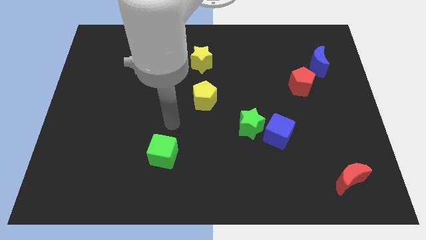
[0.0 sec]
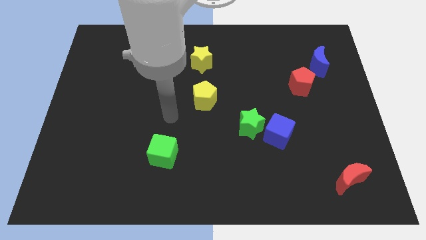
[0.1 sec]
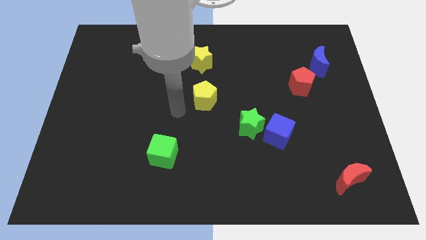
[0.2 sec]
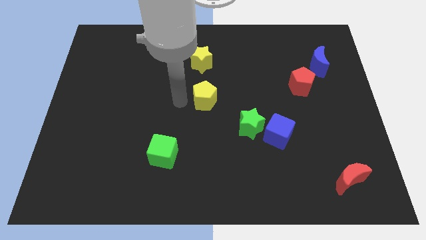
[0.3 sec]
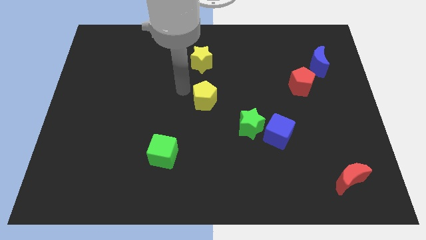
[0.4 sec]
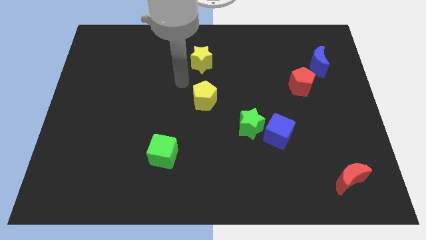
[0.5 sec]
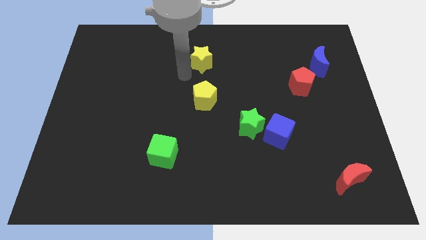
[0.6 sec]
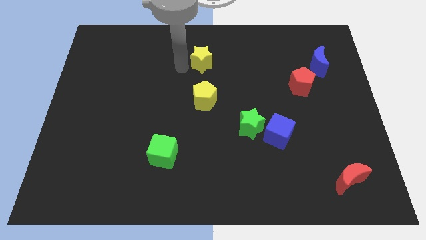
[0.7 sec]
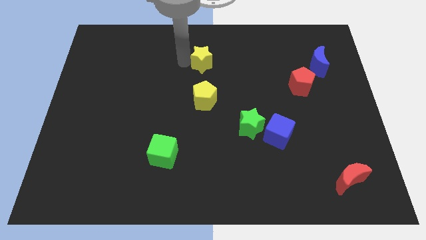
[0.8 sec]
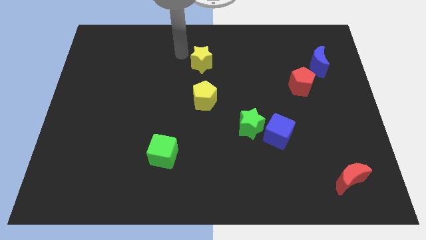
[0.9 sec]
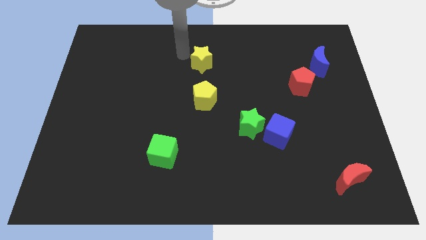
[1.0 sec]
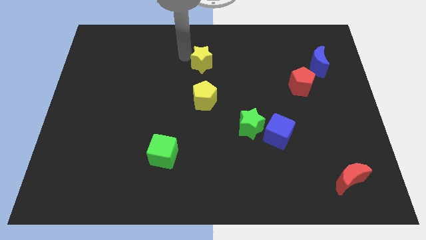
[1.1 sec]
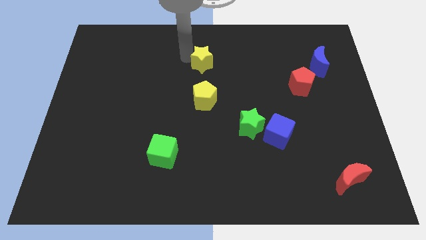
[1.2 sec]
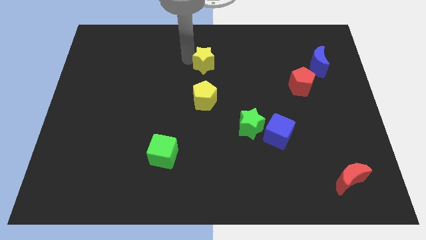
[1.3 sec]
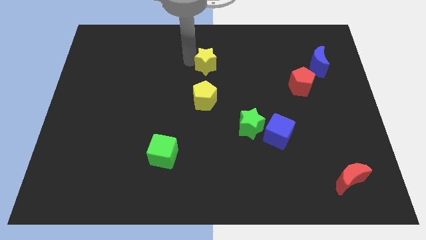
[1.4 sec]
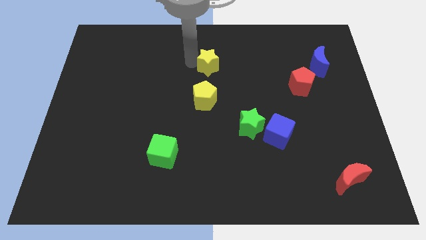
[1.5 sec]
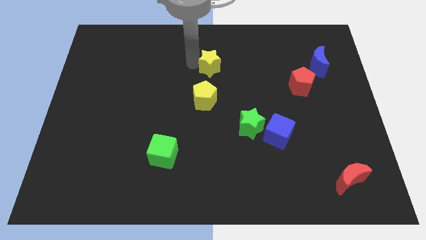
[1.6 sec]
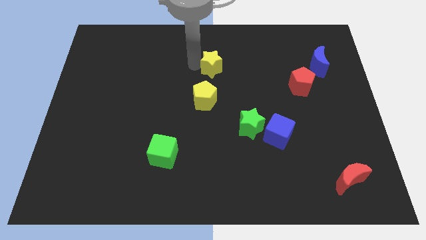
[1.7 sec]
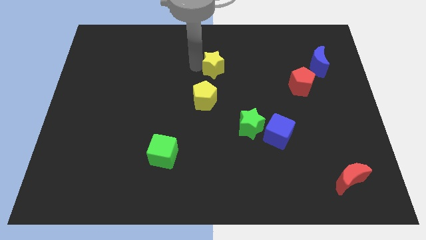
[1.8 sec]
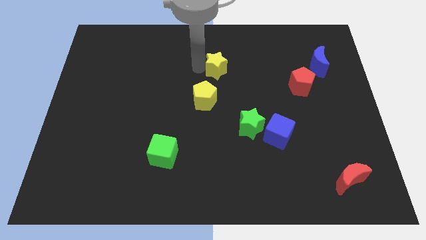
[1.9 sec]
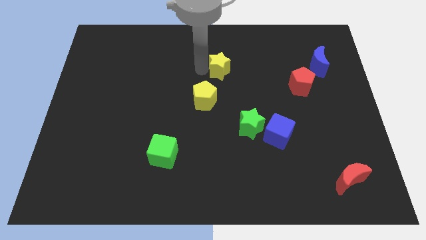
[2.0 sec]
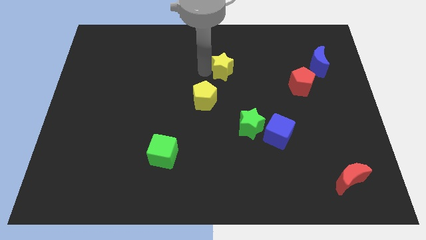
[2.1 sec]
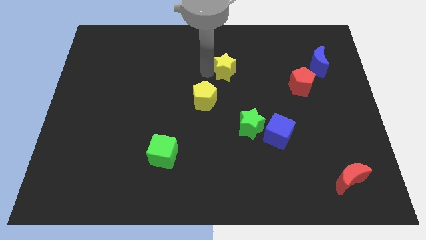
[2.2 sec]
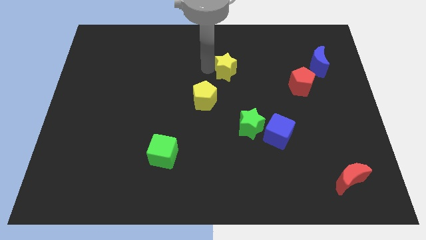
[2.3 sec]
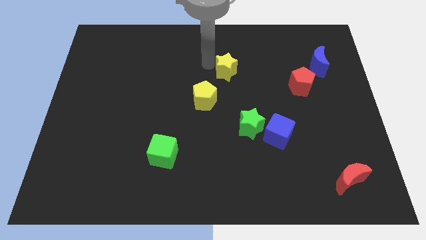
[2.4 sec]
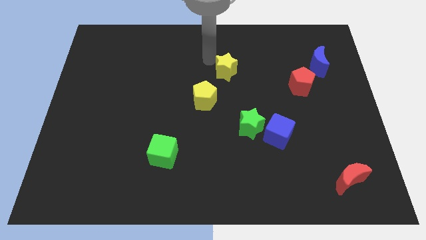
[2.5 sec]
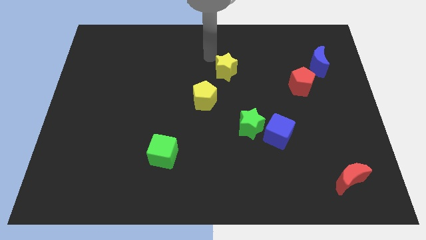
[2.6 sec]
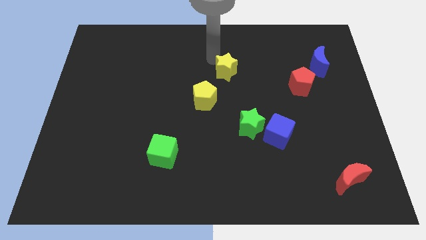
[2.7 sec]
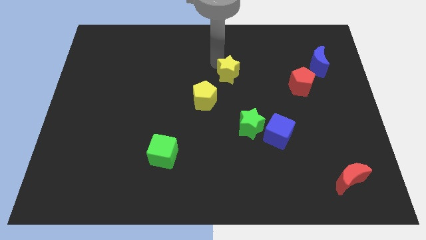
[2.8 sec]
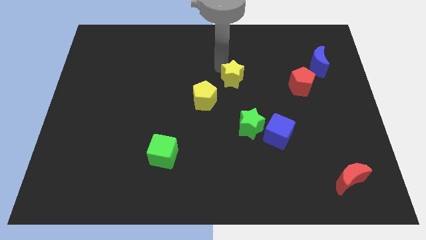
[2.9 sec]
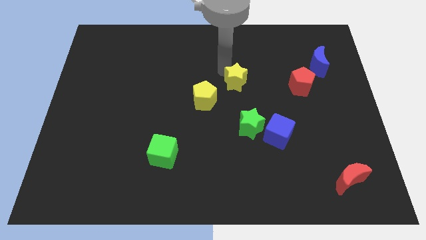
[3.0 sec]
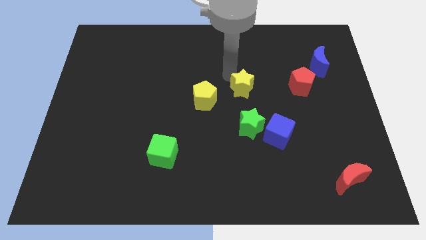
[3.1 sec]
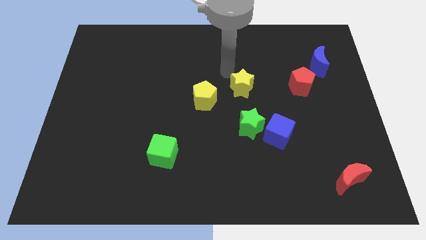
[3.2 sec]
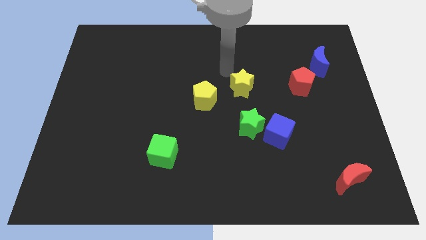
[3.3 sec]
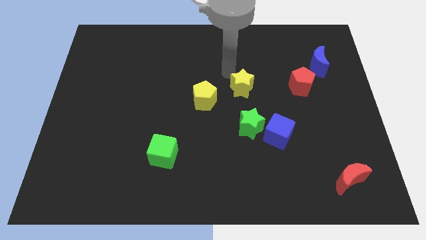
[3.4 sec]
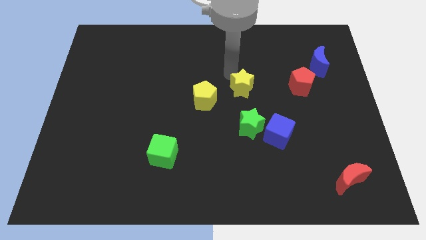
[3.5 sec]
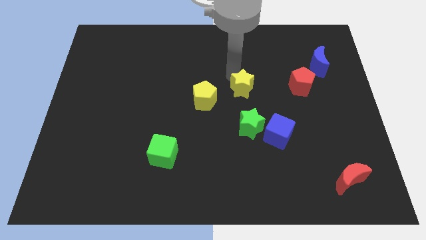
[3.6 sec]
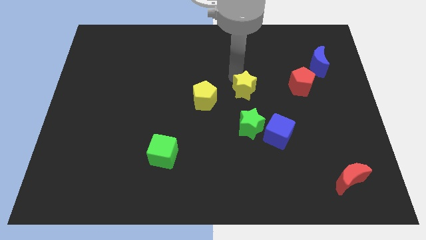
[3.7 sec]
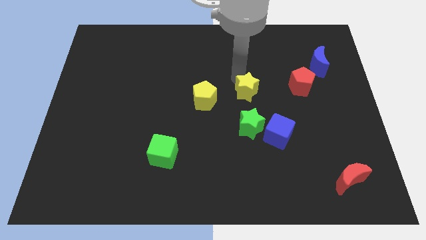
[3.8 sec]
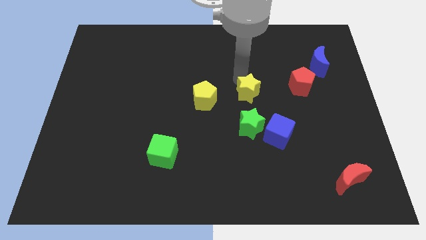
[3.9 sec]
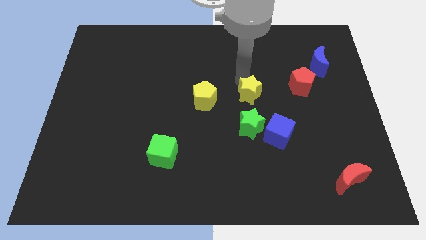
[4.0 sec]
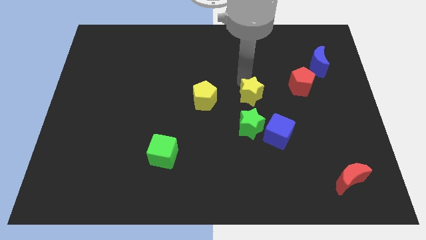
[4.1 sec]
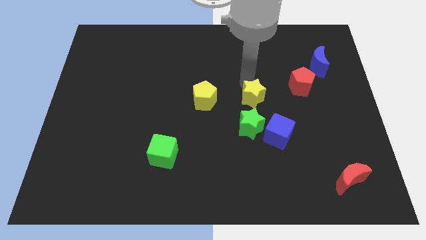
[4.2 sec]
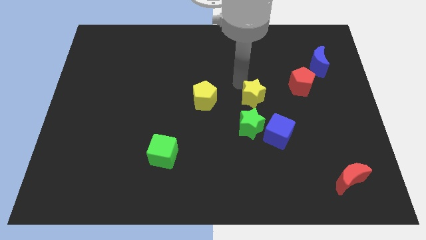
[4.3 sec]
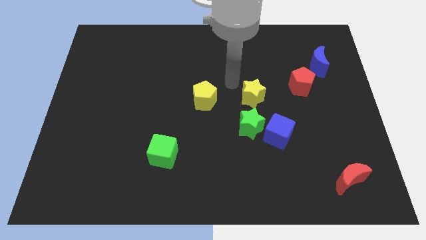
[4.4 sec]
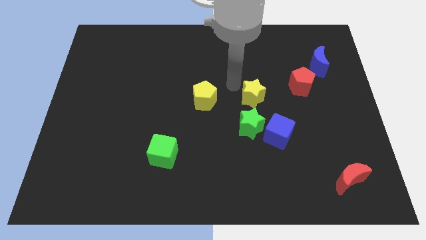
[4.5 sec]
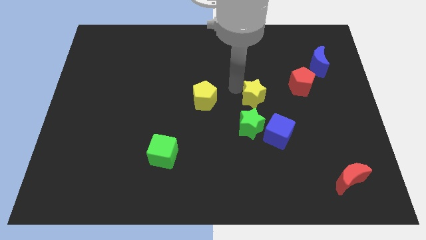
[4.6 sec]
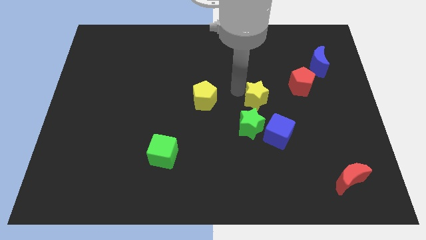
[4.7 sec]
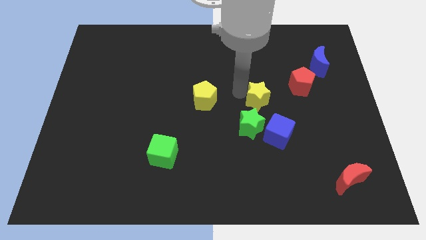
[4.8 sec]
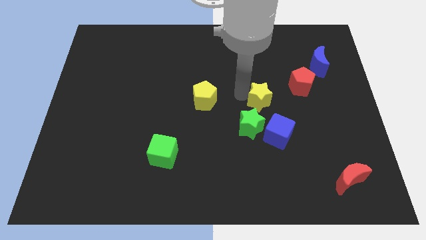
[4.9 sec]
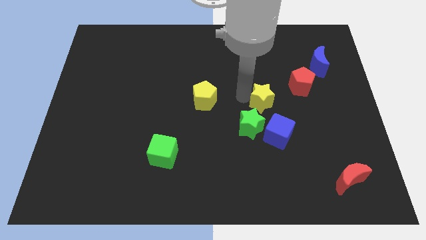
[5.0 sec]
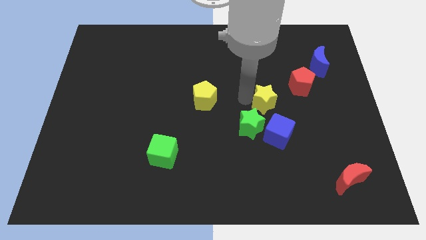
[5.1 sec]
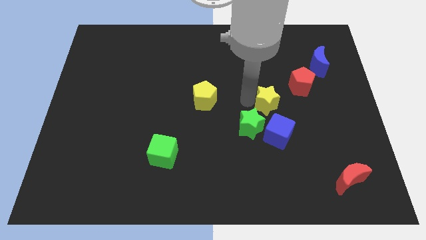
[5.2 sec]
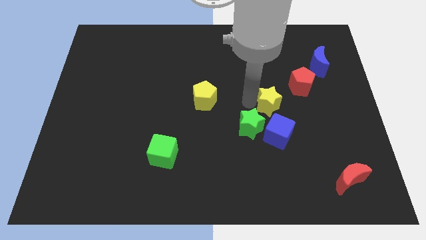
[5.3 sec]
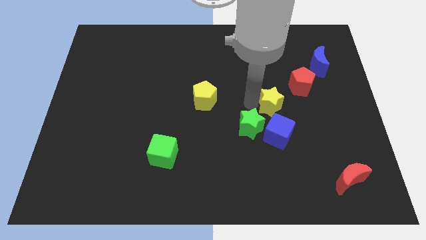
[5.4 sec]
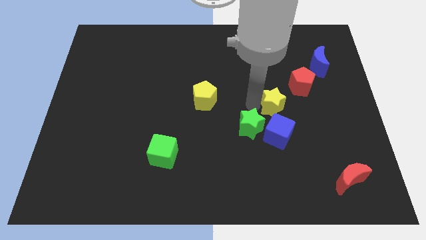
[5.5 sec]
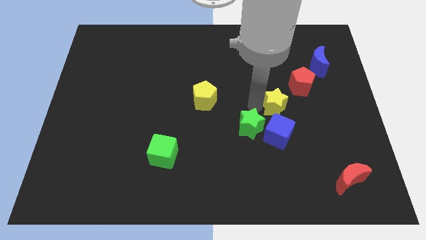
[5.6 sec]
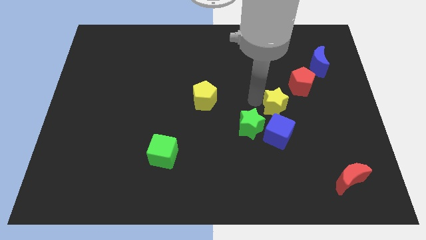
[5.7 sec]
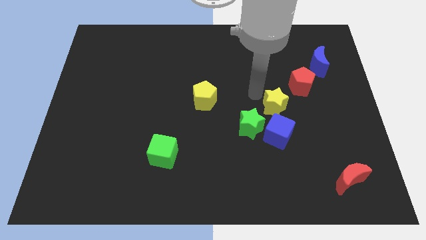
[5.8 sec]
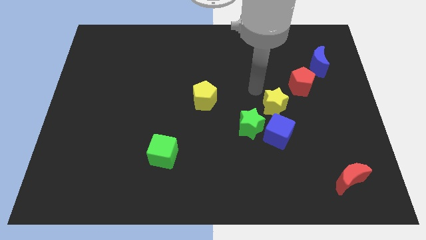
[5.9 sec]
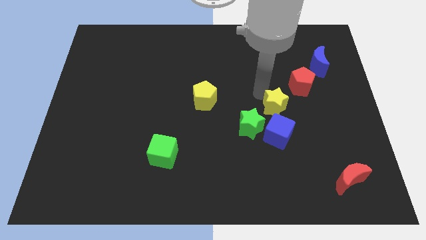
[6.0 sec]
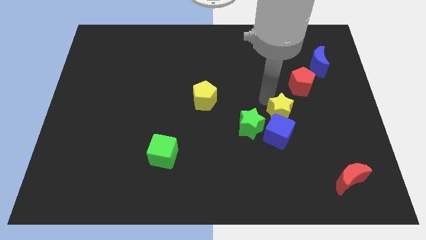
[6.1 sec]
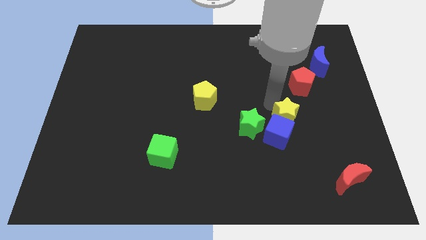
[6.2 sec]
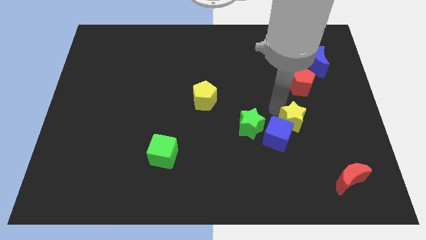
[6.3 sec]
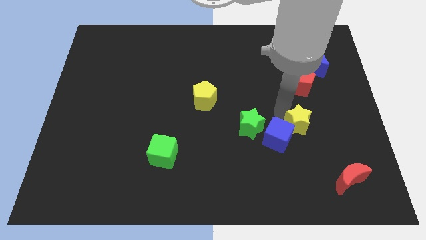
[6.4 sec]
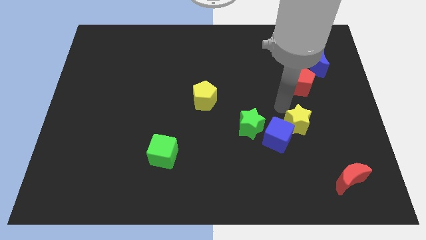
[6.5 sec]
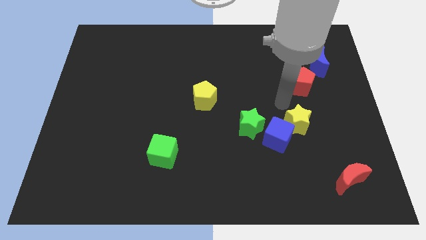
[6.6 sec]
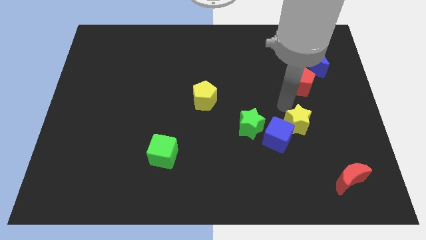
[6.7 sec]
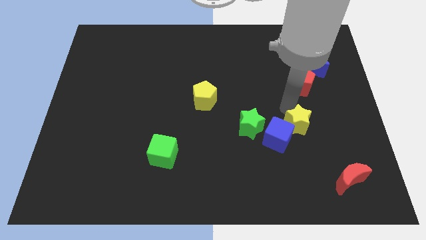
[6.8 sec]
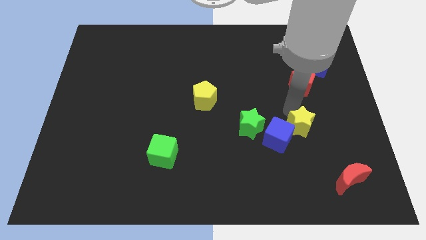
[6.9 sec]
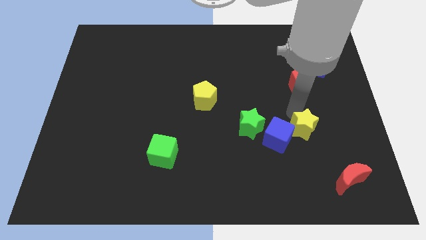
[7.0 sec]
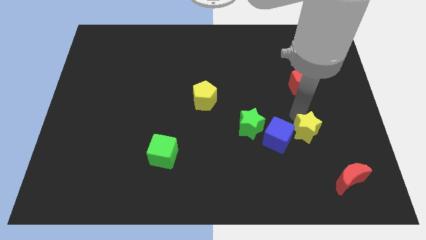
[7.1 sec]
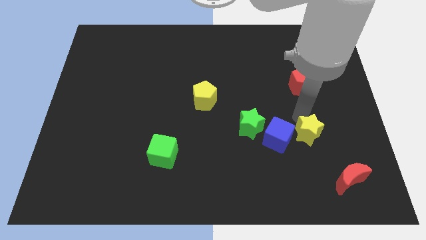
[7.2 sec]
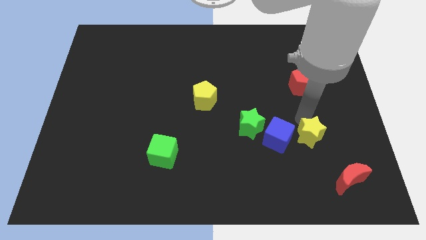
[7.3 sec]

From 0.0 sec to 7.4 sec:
slide the yellow star to the top left side of the red moon

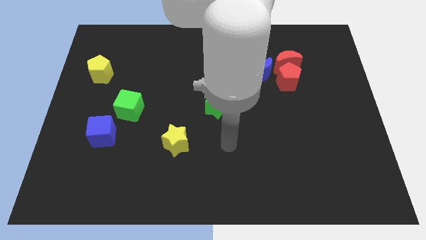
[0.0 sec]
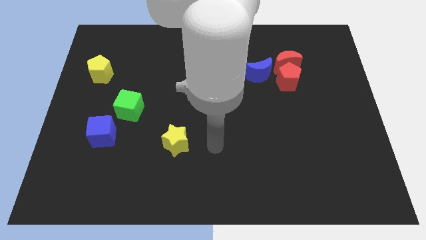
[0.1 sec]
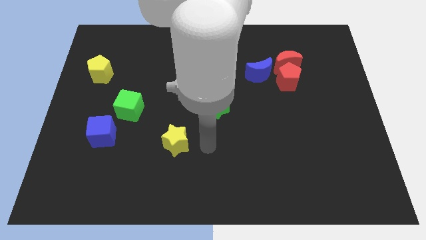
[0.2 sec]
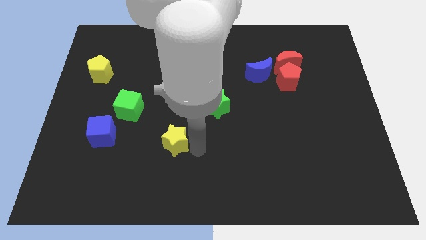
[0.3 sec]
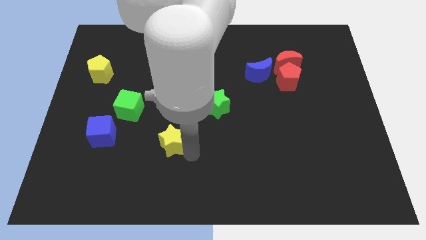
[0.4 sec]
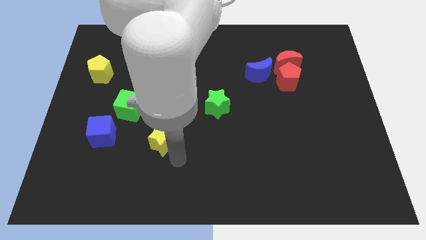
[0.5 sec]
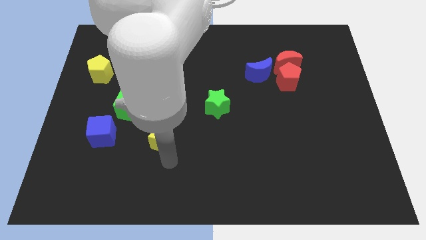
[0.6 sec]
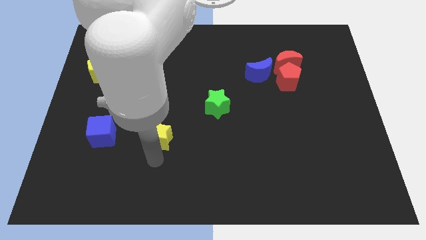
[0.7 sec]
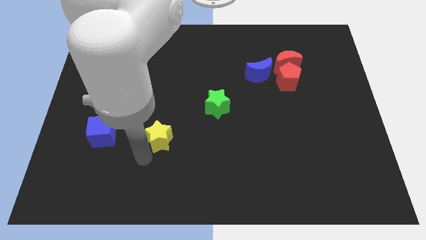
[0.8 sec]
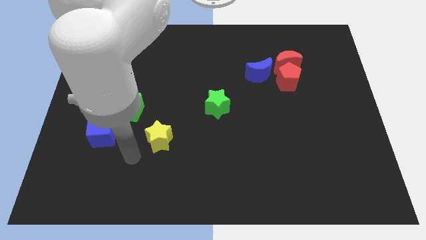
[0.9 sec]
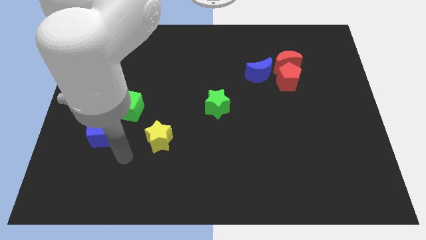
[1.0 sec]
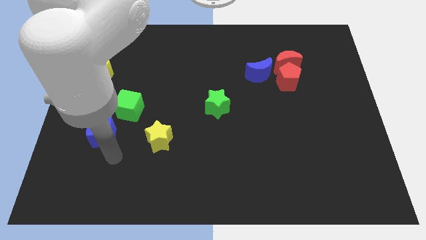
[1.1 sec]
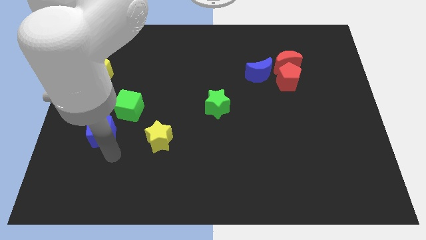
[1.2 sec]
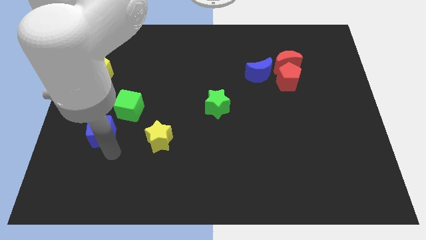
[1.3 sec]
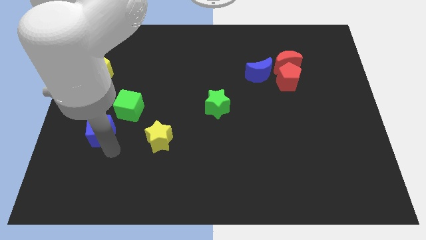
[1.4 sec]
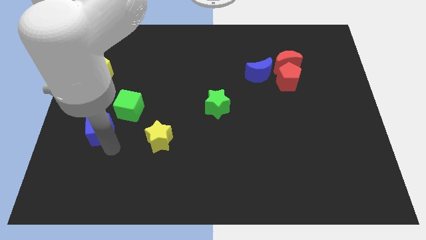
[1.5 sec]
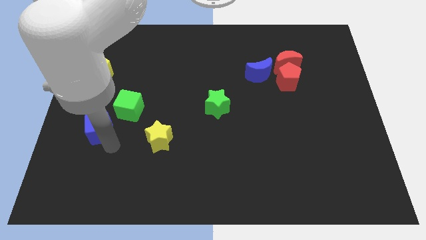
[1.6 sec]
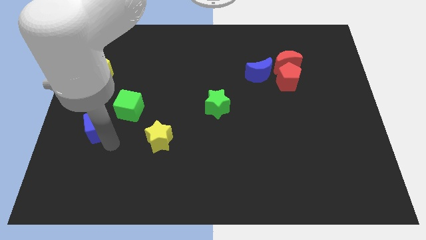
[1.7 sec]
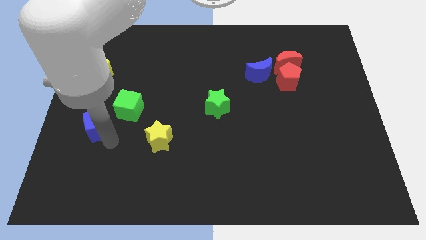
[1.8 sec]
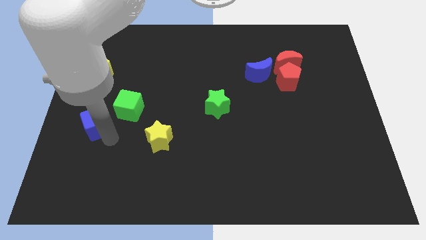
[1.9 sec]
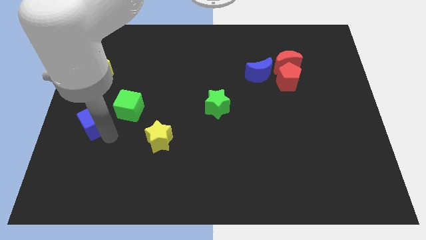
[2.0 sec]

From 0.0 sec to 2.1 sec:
move the blue cube to the bottom of the yellow pentagon
